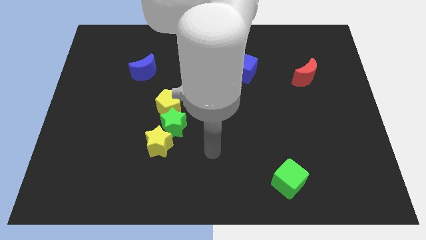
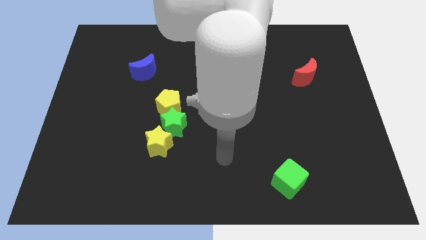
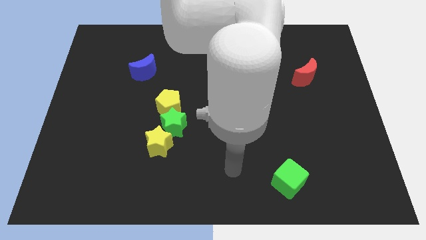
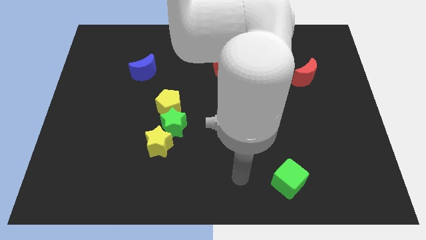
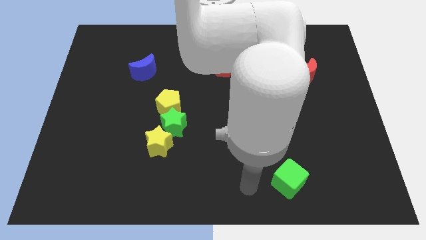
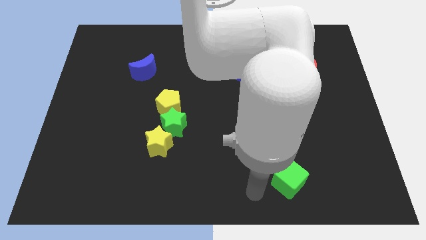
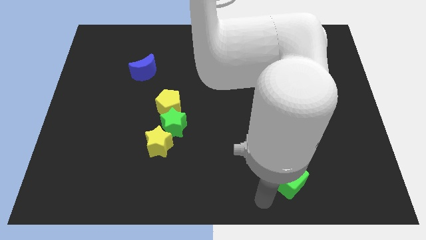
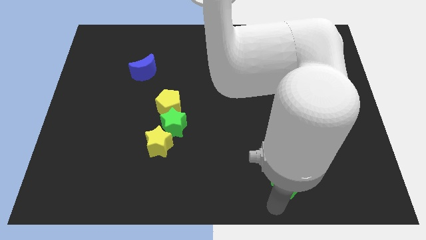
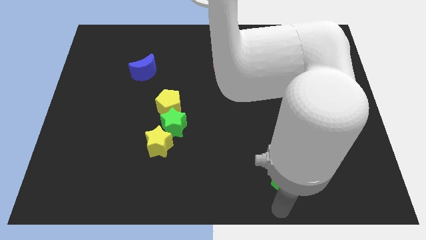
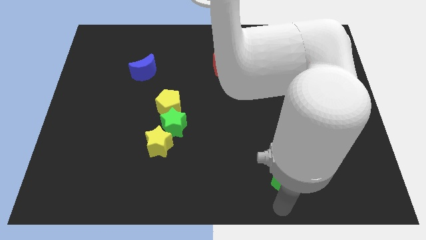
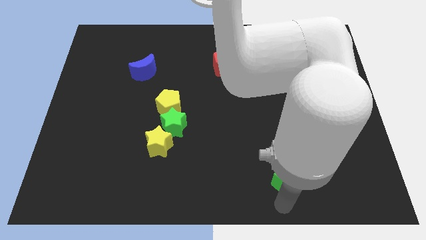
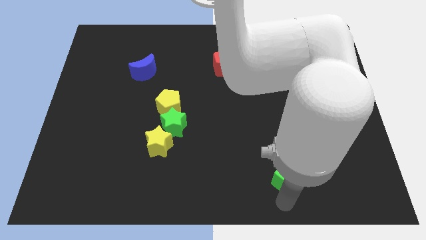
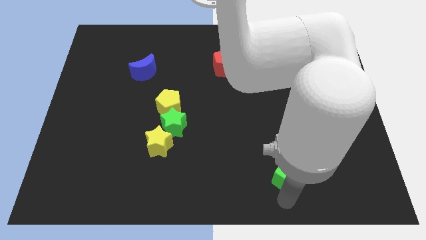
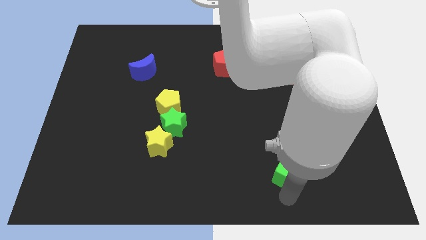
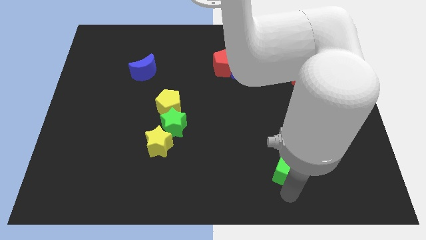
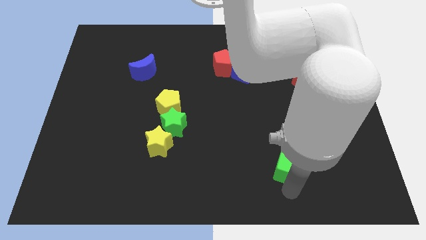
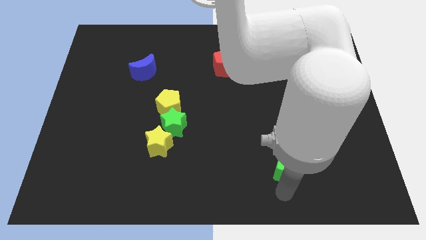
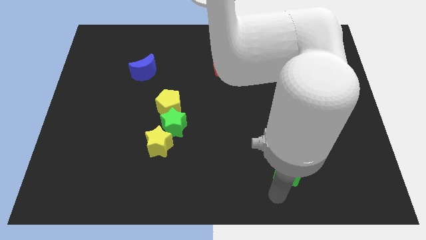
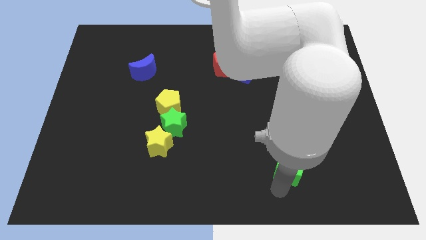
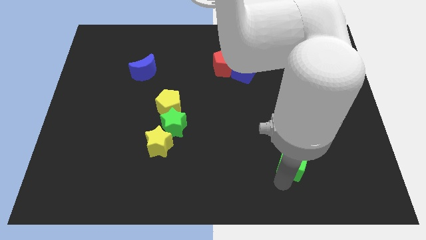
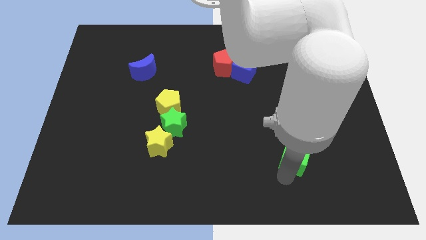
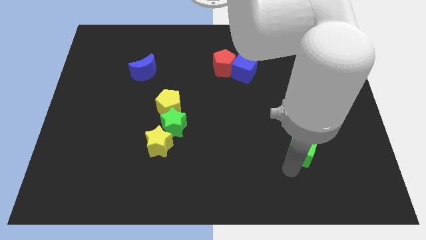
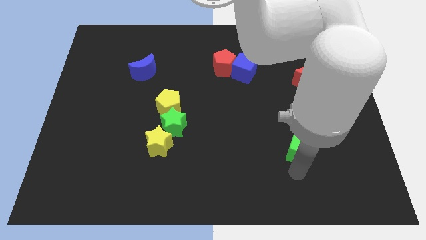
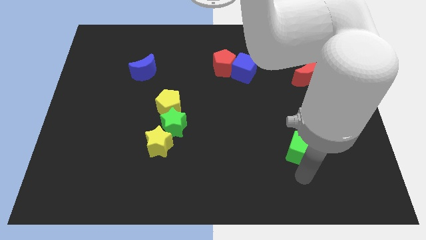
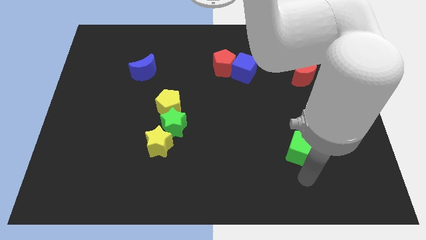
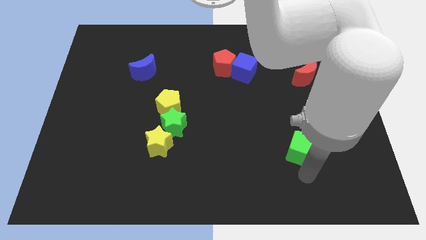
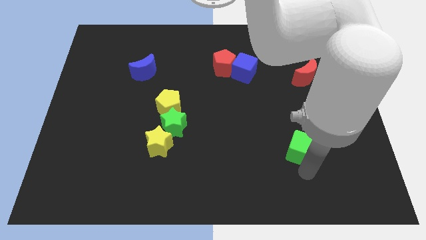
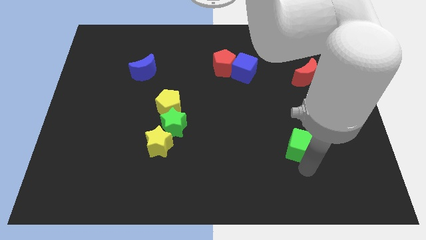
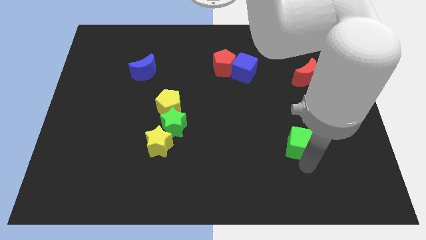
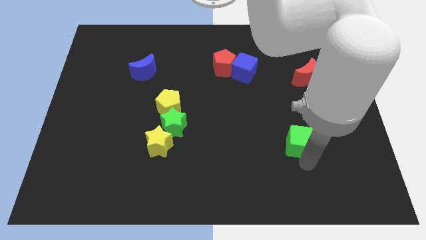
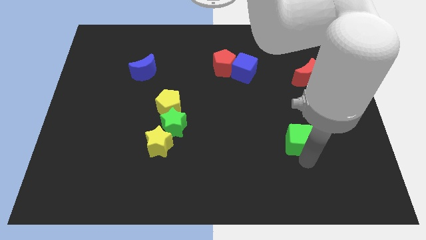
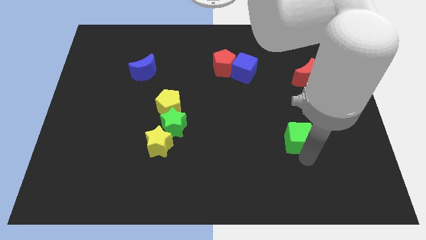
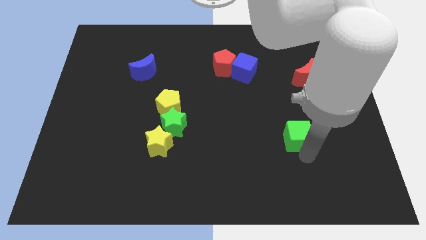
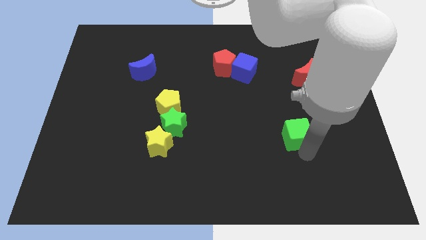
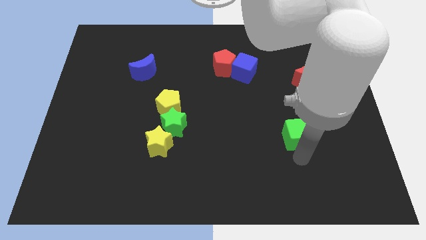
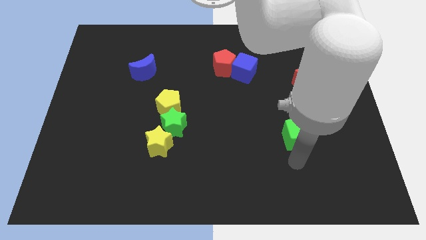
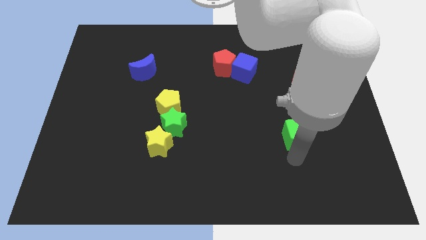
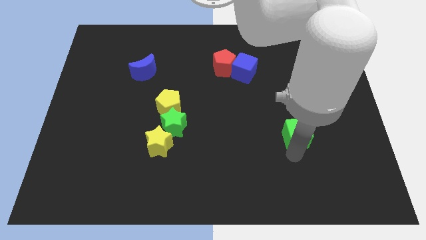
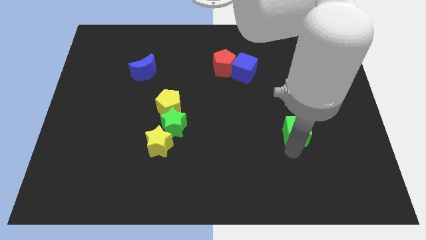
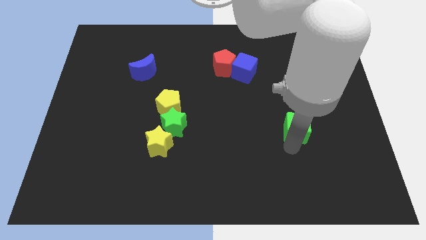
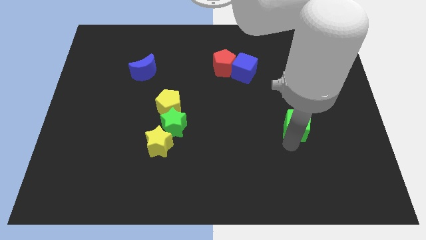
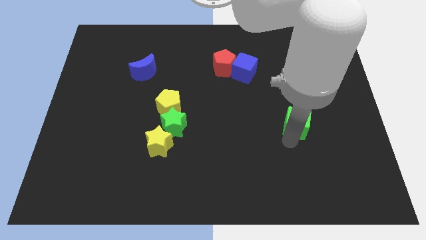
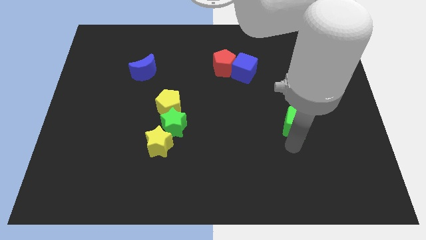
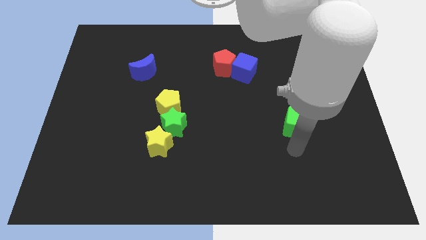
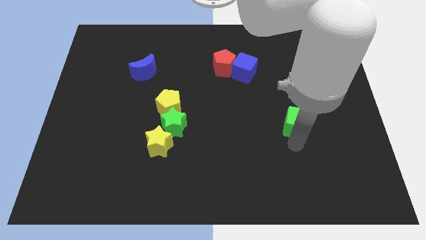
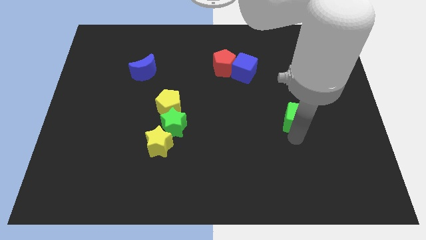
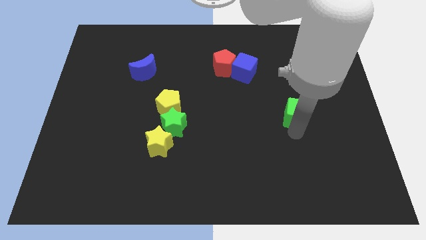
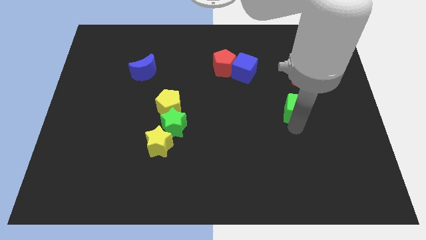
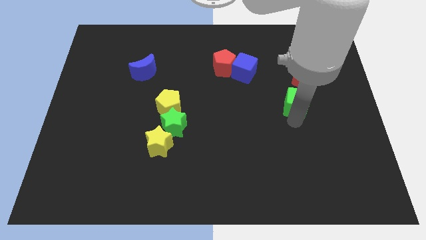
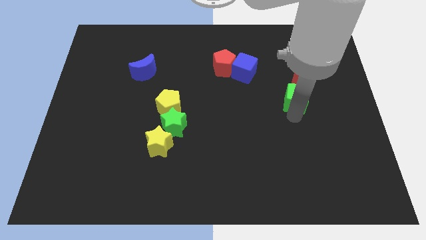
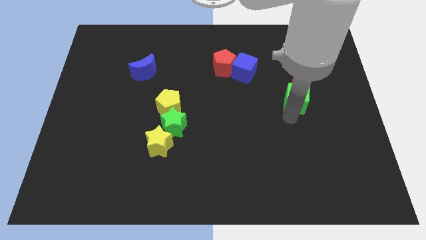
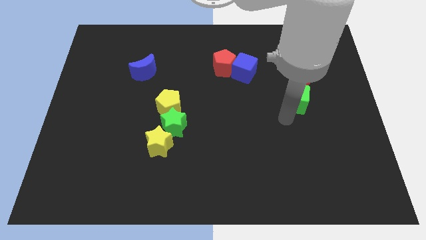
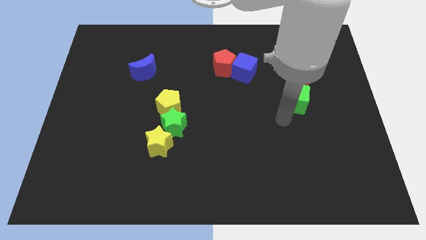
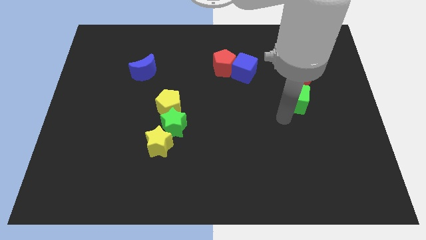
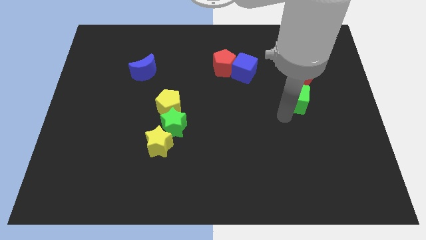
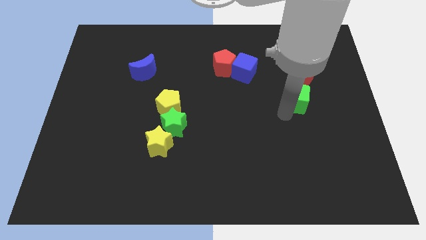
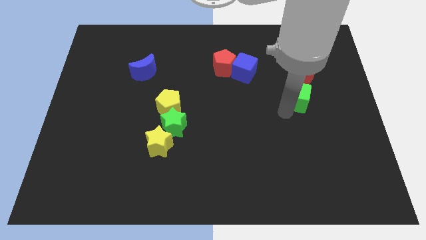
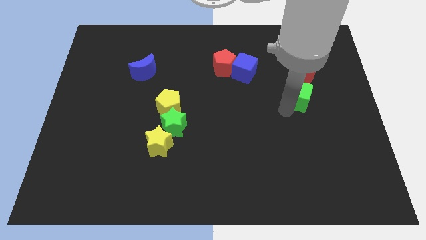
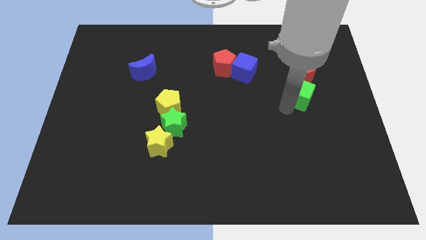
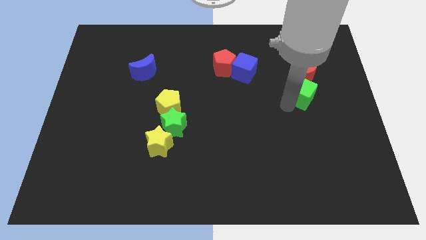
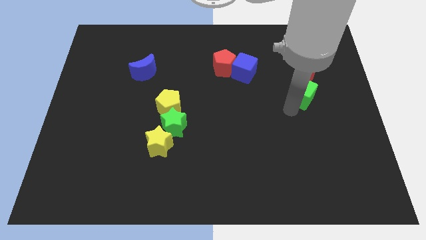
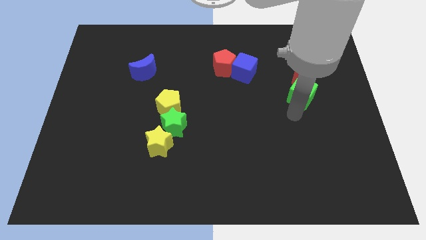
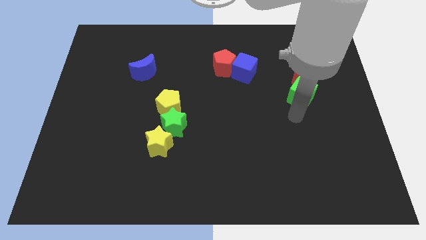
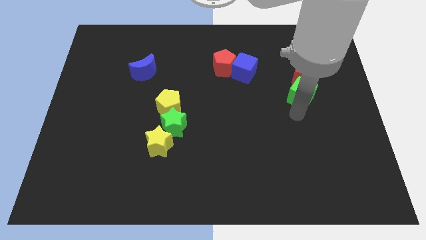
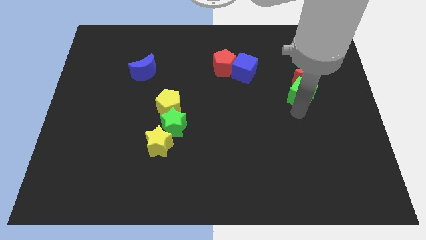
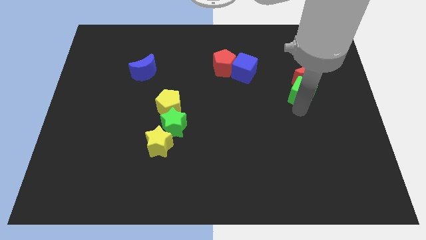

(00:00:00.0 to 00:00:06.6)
slide the green cube towards the red moon

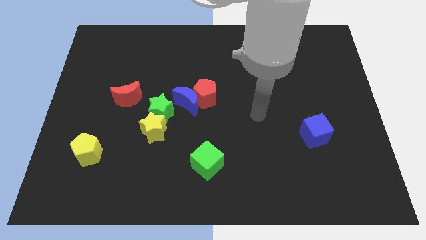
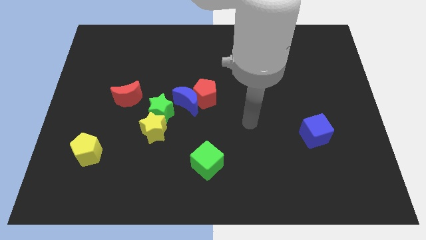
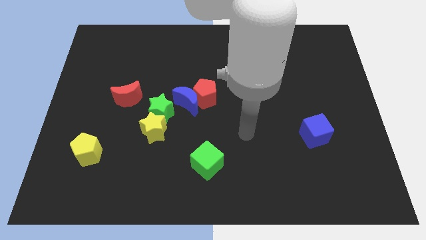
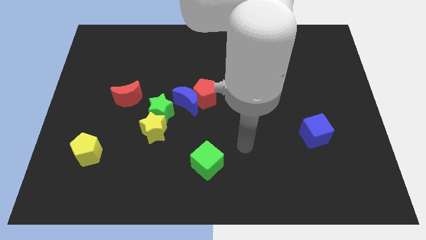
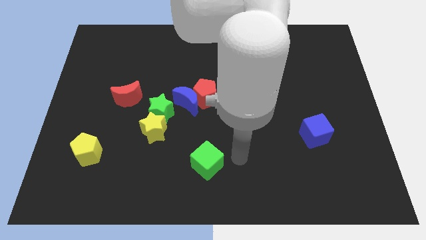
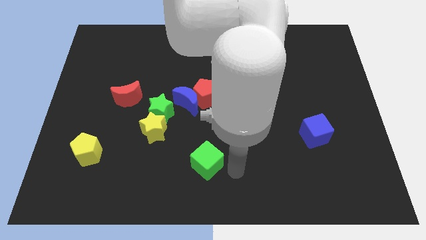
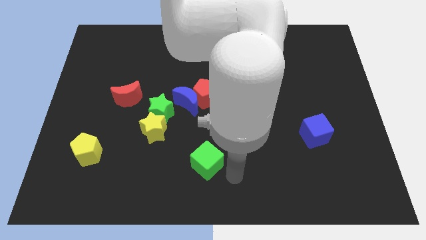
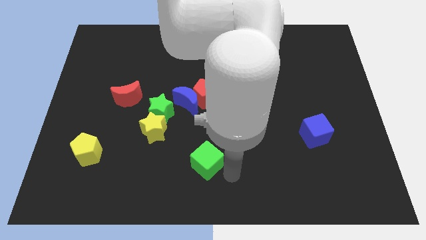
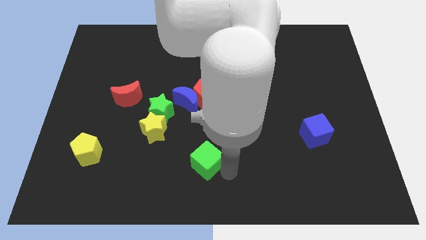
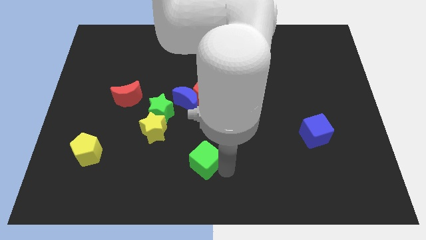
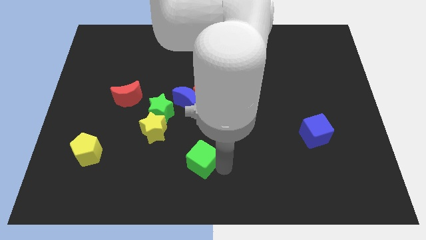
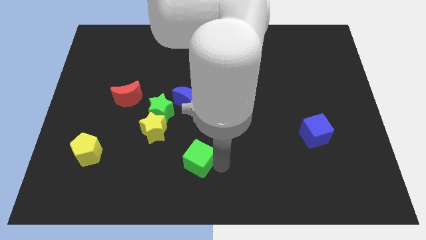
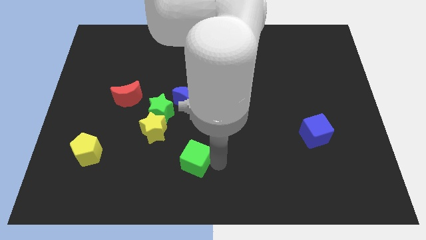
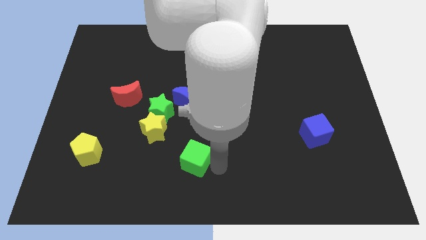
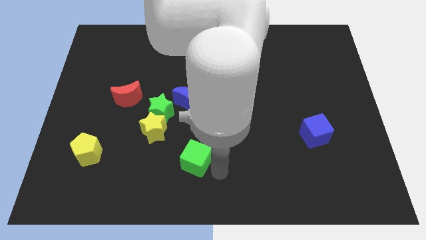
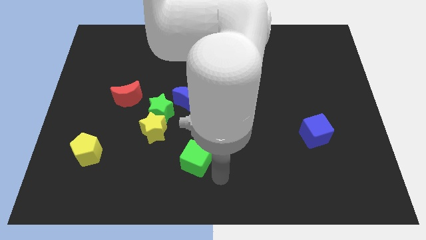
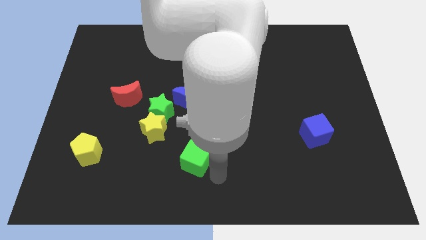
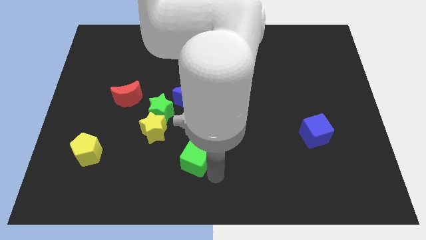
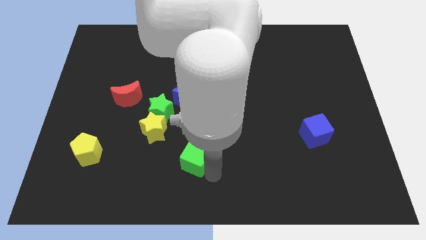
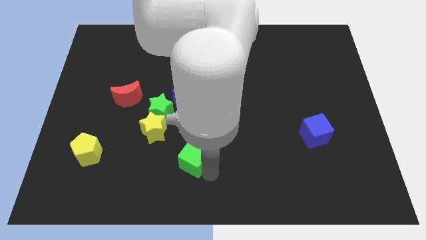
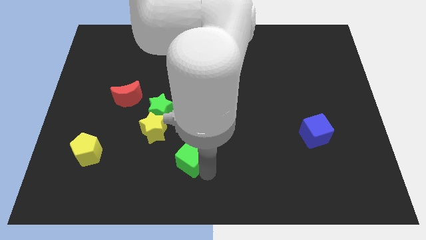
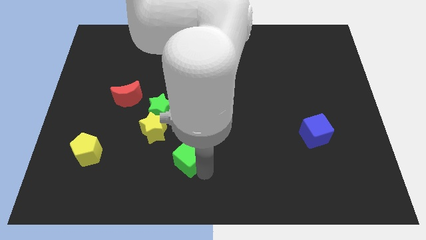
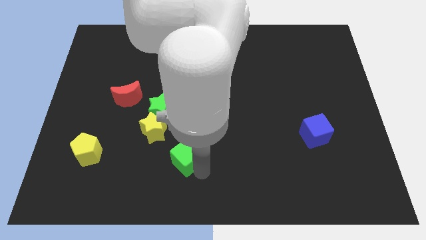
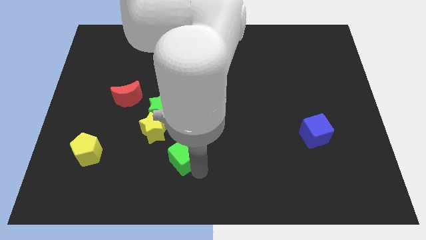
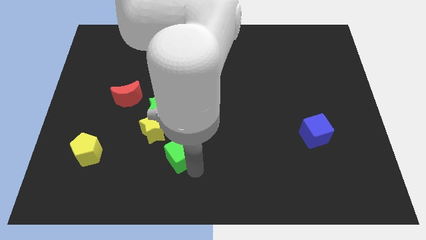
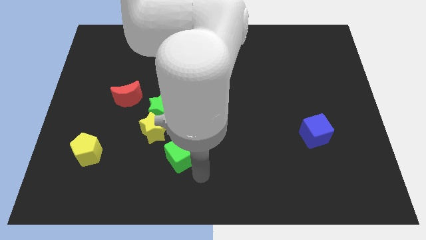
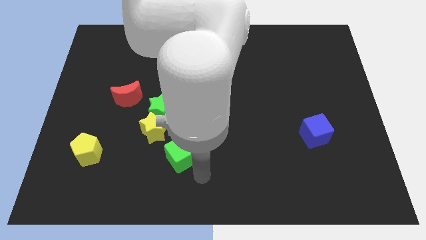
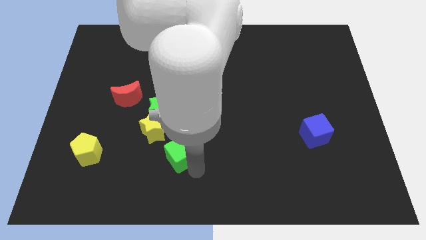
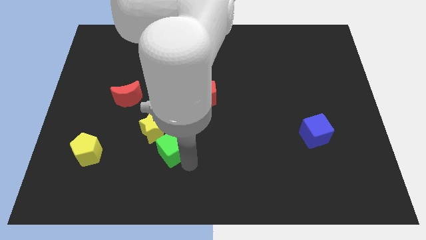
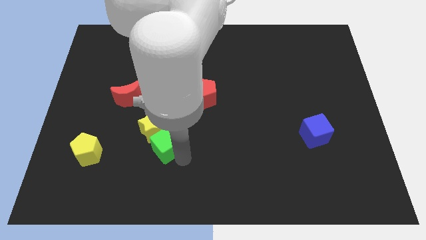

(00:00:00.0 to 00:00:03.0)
put the green cube close to the yellow star
